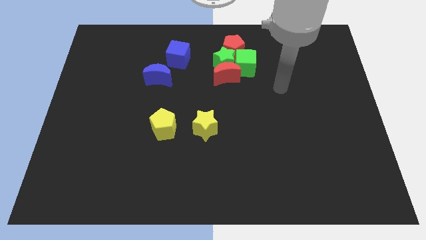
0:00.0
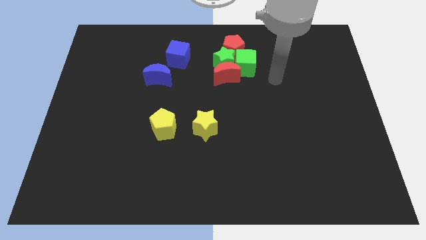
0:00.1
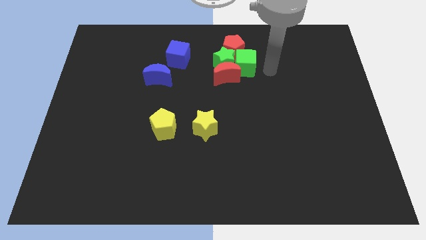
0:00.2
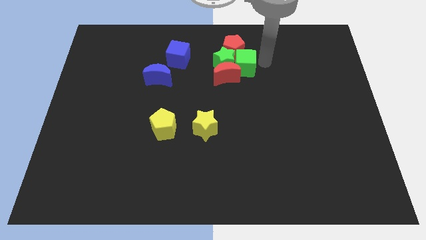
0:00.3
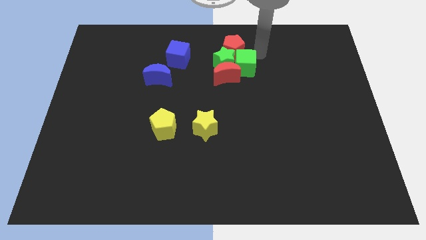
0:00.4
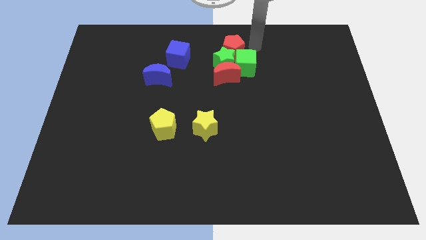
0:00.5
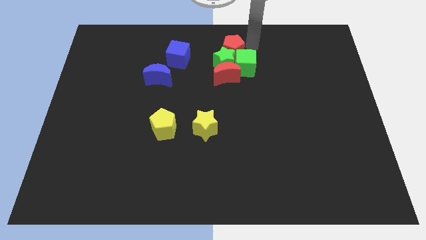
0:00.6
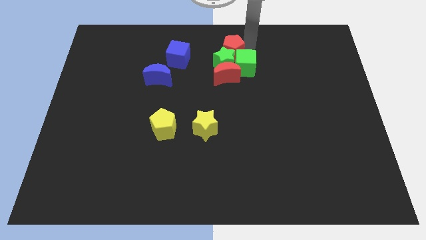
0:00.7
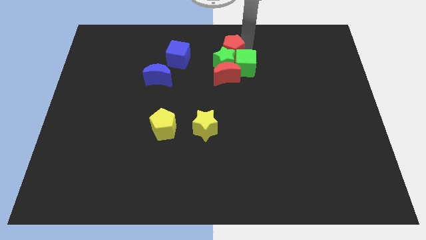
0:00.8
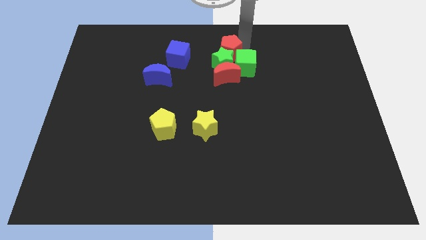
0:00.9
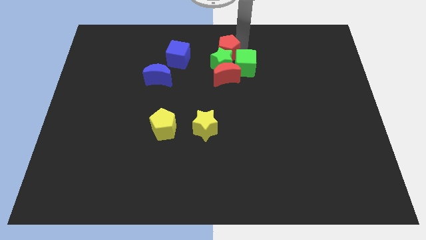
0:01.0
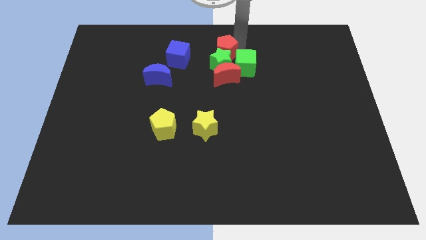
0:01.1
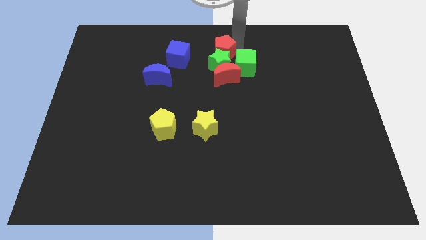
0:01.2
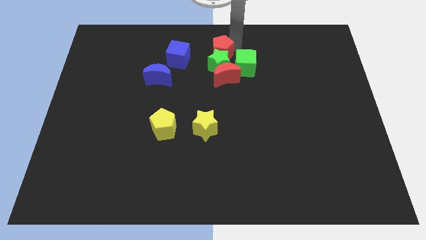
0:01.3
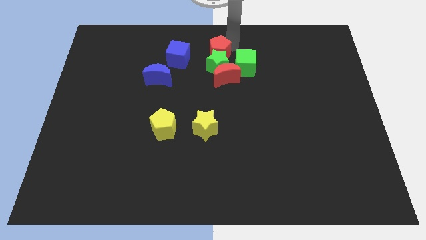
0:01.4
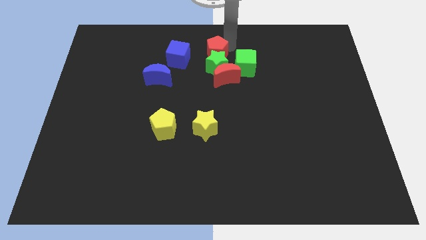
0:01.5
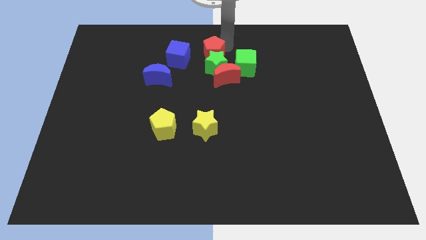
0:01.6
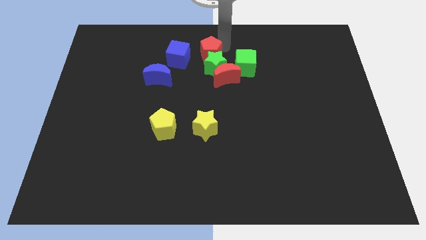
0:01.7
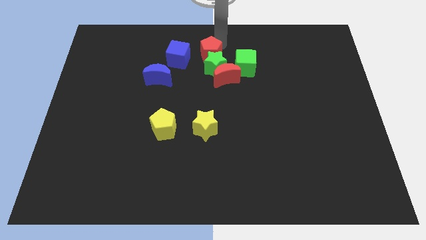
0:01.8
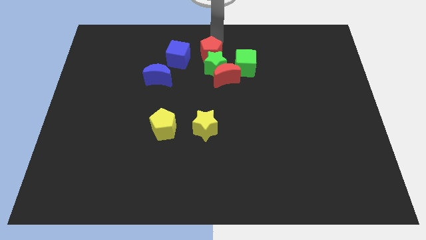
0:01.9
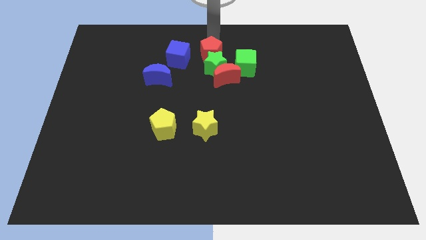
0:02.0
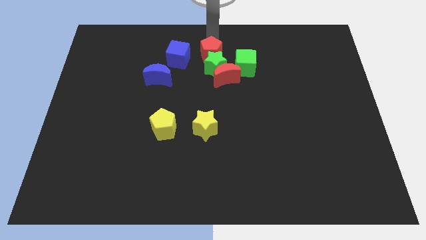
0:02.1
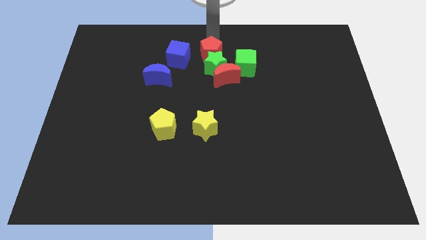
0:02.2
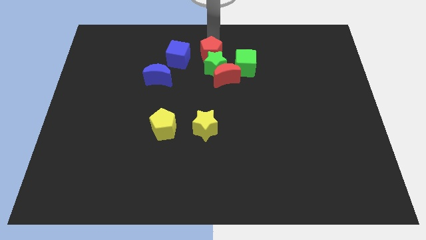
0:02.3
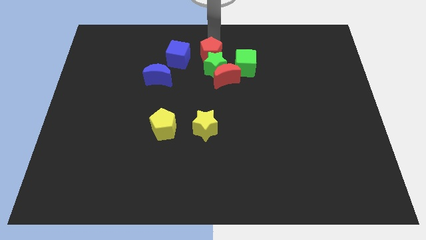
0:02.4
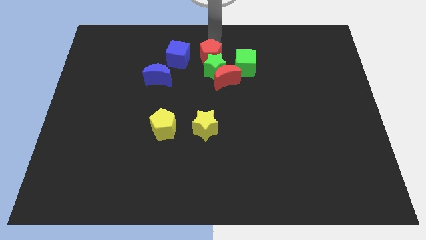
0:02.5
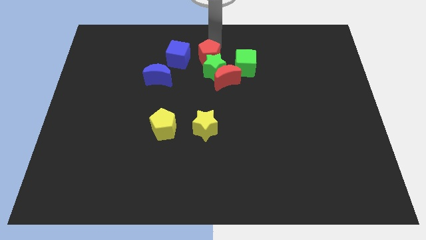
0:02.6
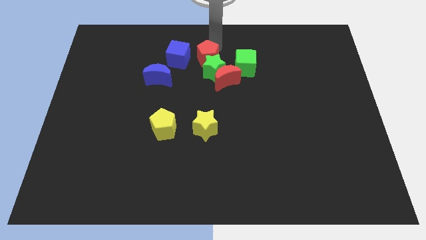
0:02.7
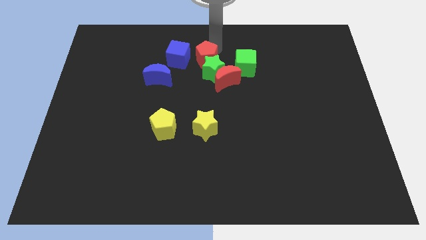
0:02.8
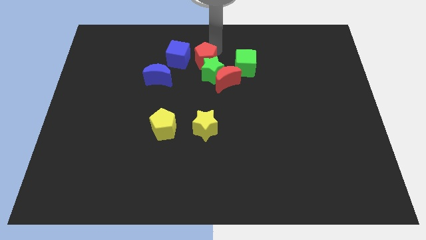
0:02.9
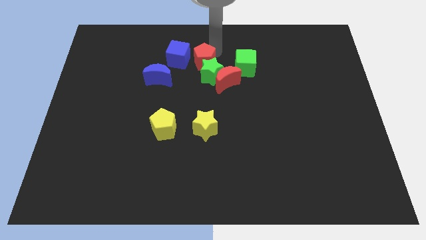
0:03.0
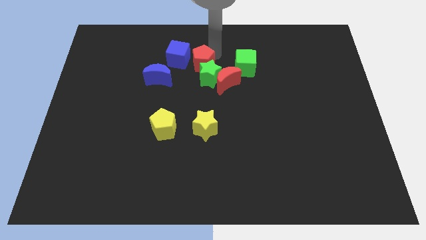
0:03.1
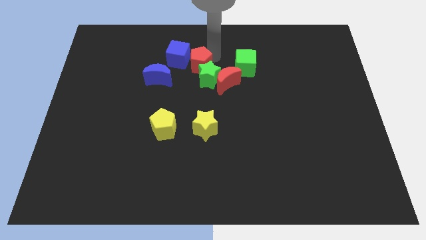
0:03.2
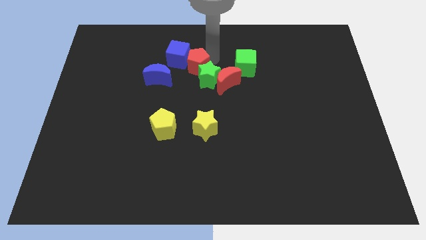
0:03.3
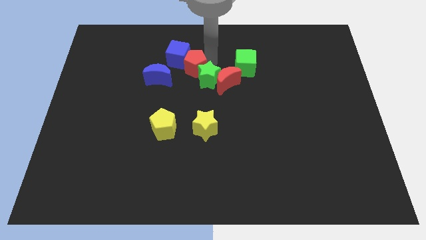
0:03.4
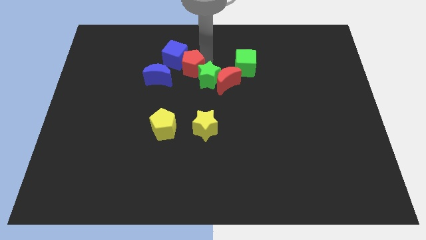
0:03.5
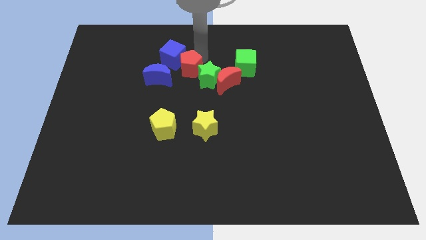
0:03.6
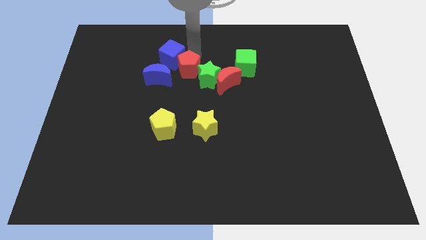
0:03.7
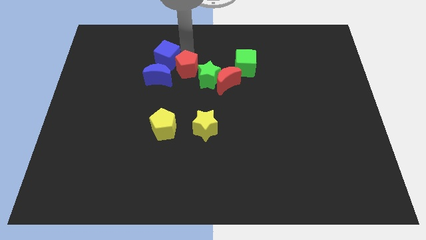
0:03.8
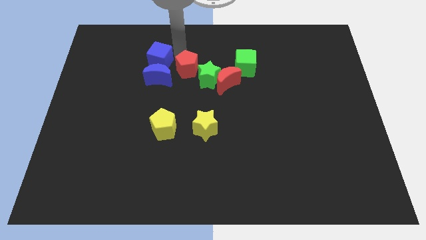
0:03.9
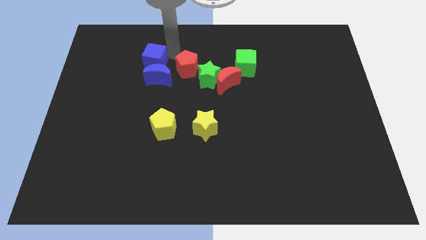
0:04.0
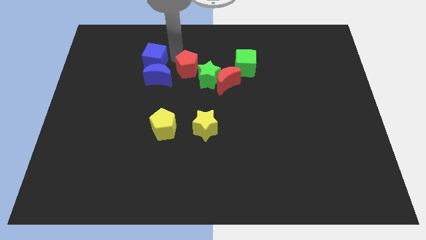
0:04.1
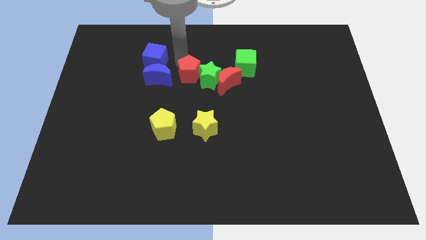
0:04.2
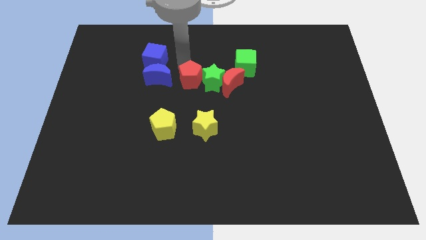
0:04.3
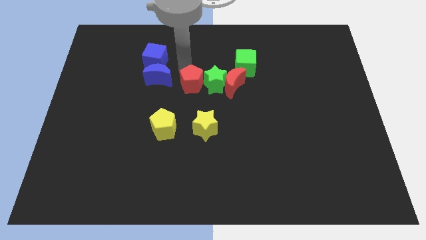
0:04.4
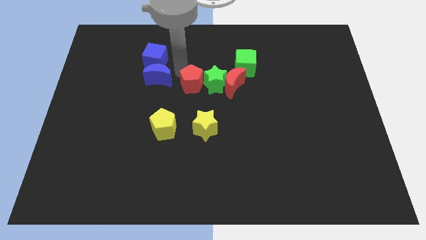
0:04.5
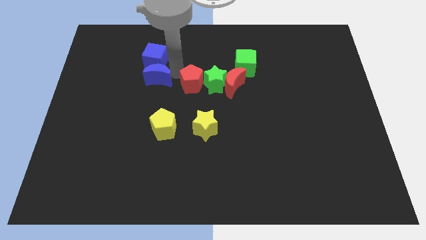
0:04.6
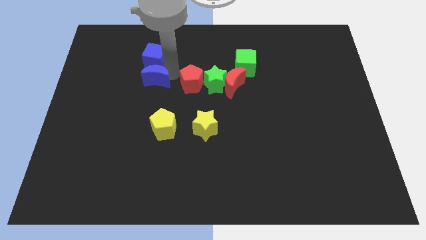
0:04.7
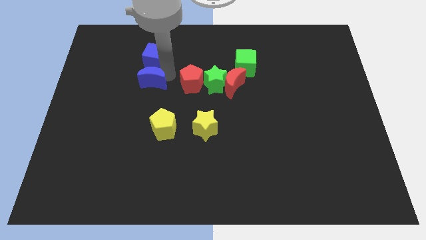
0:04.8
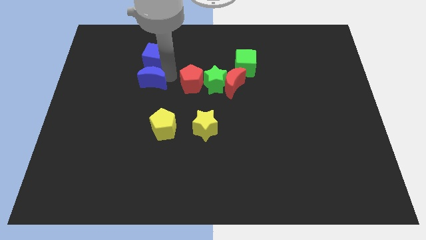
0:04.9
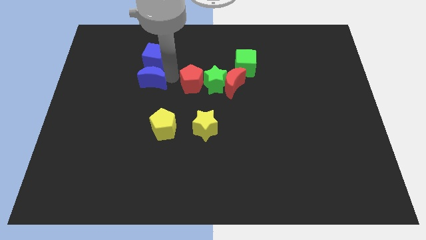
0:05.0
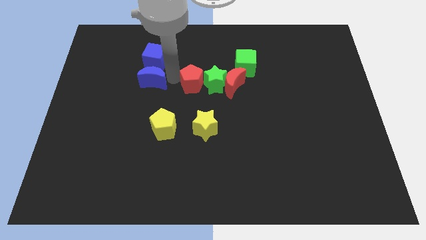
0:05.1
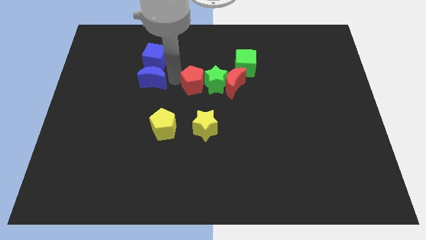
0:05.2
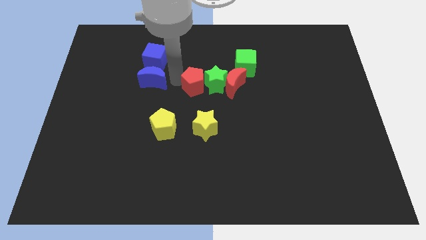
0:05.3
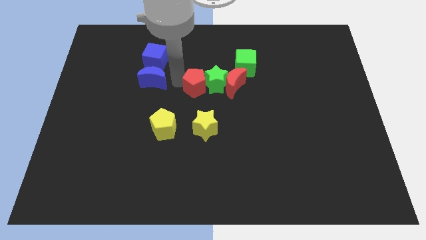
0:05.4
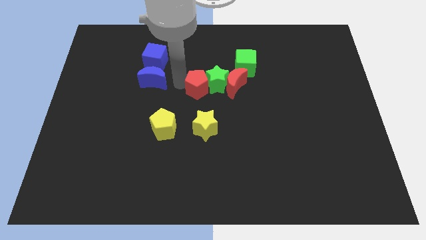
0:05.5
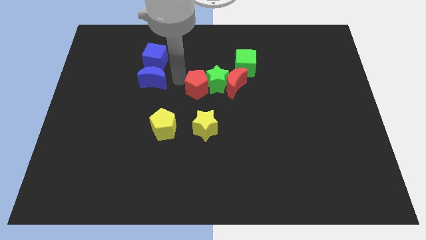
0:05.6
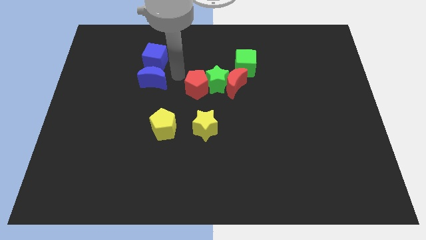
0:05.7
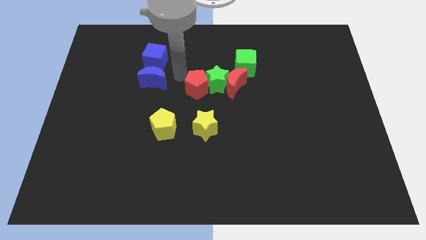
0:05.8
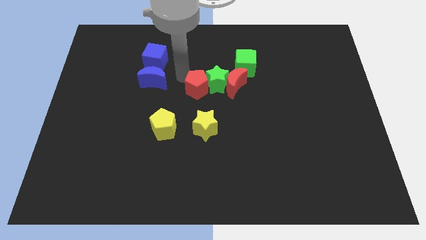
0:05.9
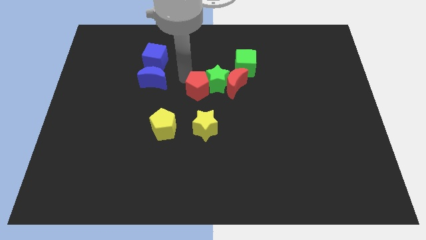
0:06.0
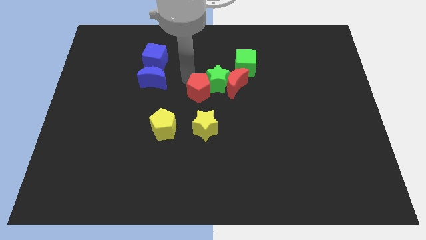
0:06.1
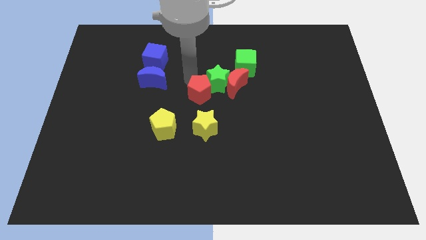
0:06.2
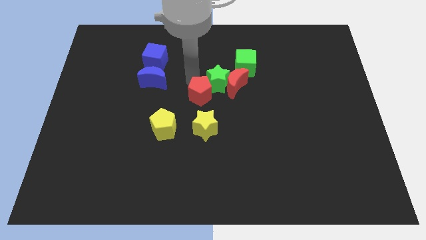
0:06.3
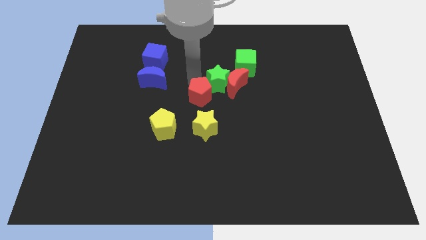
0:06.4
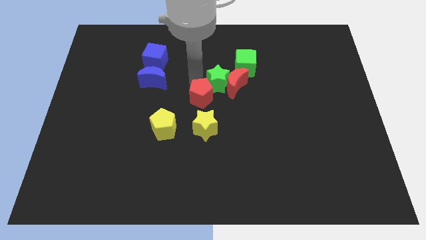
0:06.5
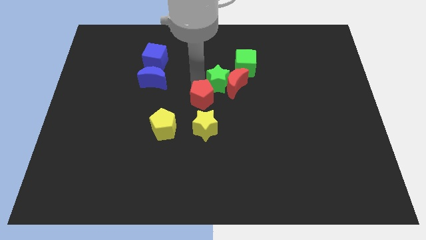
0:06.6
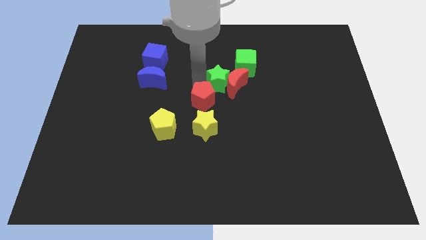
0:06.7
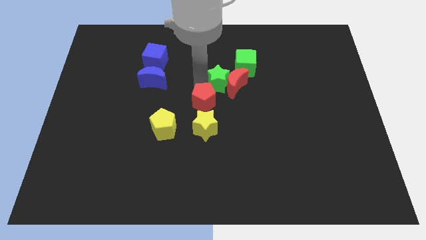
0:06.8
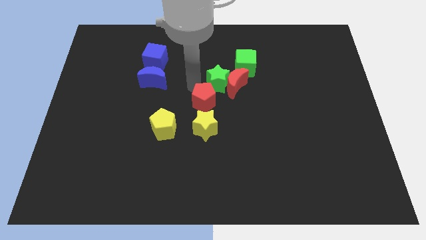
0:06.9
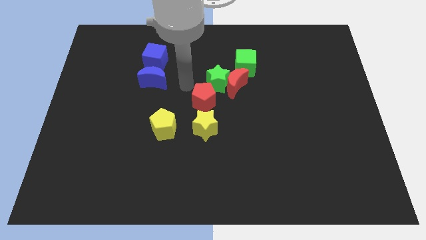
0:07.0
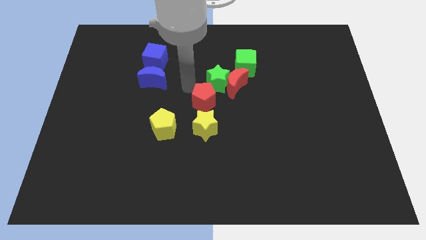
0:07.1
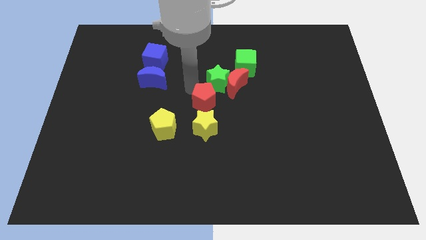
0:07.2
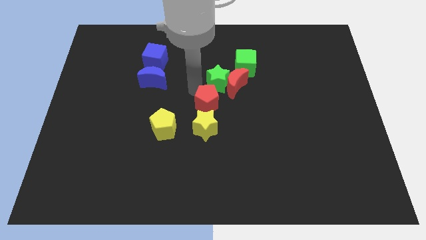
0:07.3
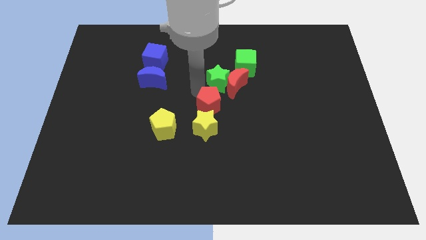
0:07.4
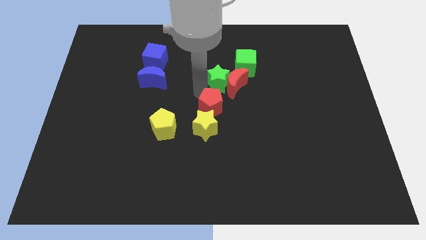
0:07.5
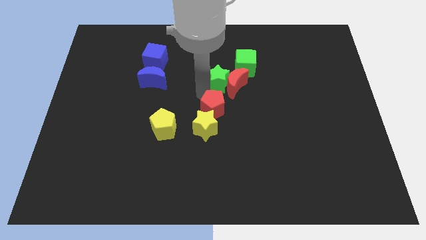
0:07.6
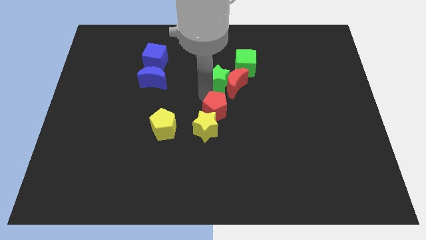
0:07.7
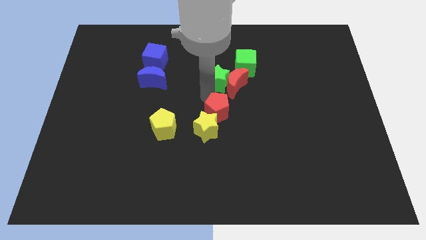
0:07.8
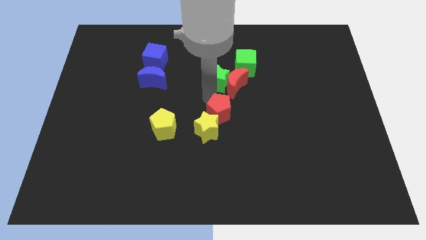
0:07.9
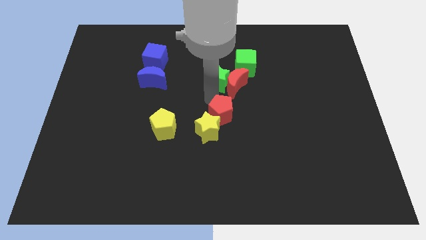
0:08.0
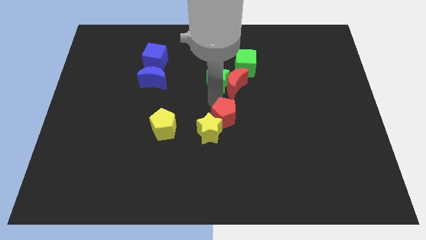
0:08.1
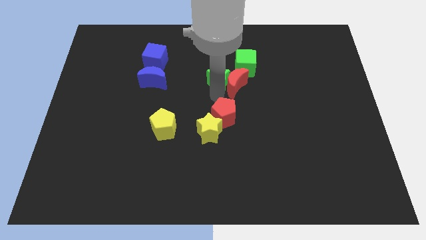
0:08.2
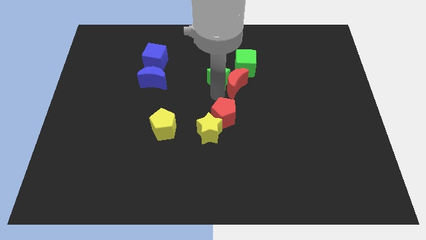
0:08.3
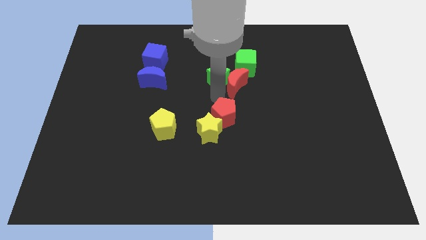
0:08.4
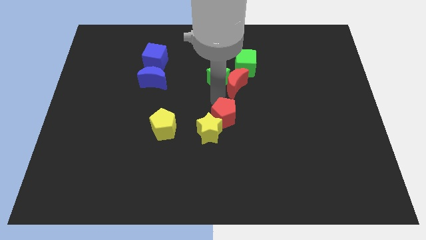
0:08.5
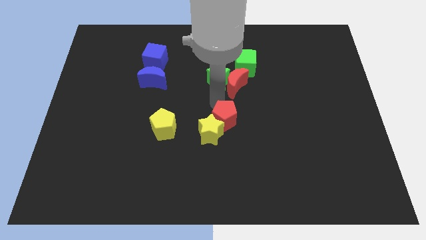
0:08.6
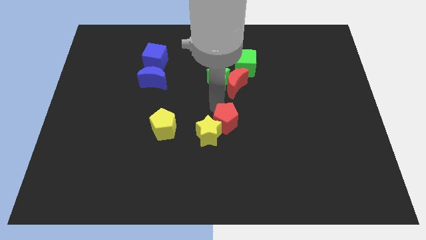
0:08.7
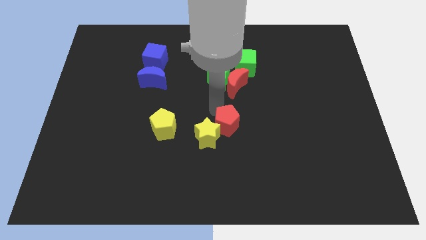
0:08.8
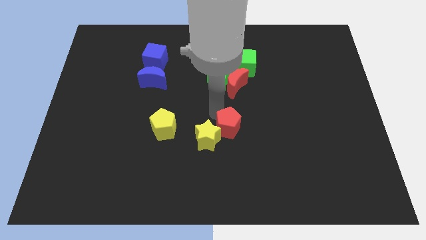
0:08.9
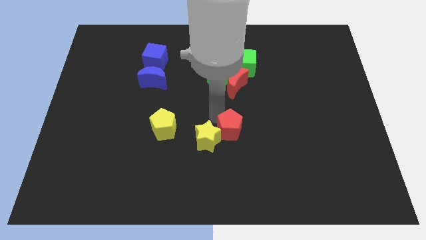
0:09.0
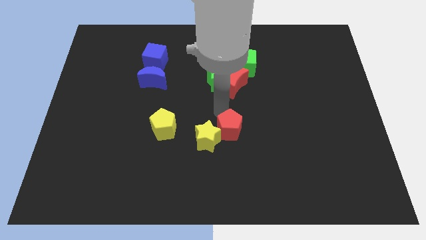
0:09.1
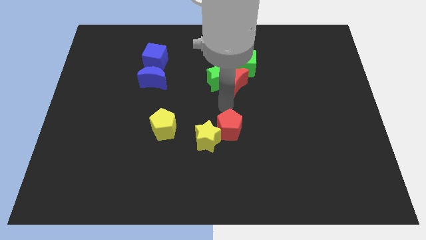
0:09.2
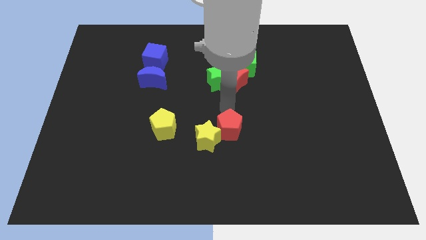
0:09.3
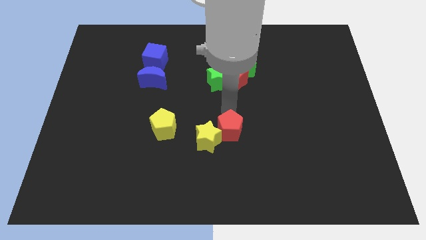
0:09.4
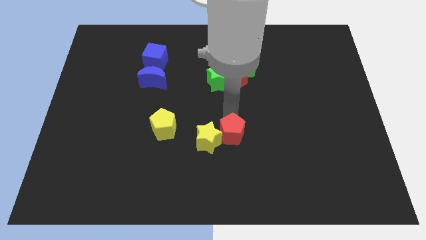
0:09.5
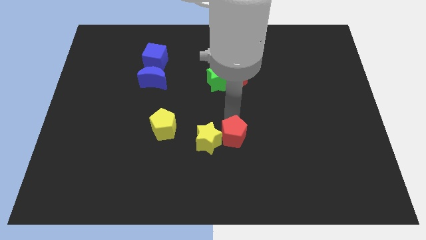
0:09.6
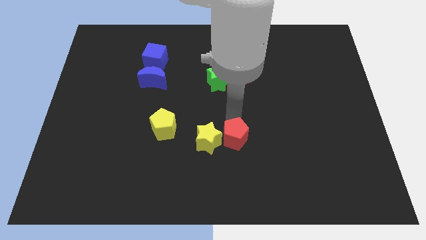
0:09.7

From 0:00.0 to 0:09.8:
push the red pentagon to the bottom right side of the yellow star
